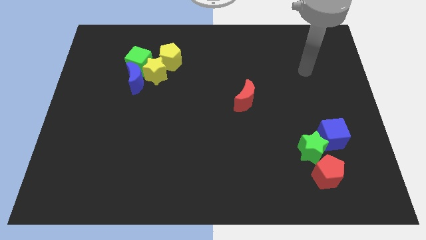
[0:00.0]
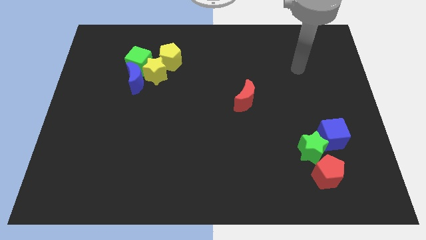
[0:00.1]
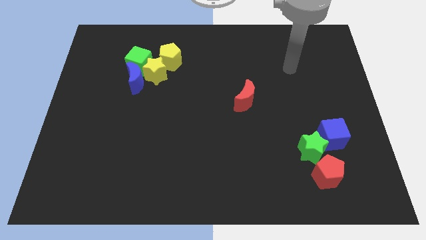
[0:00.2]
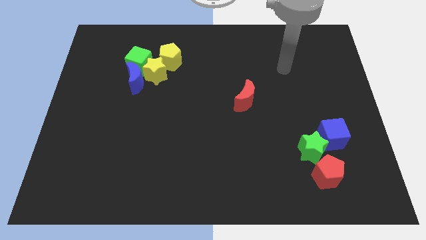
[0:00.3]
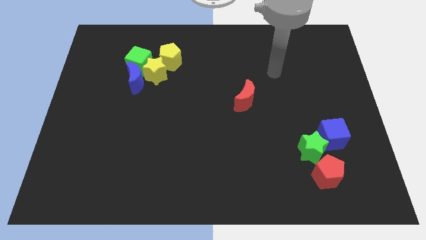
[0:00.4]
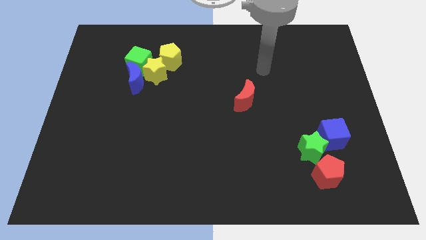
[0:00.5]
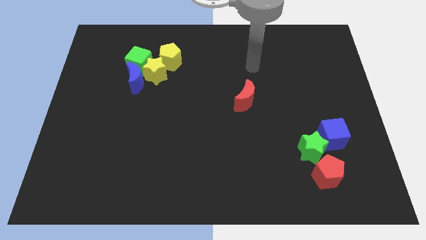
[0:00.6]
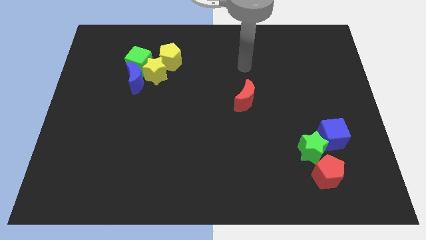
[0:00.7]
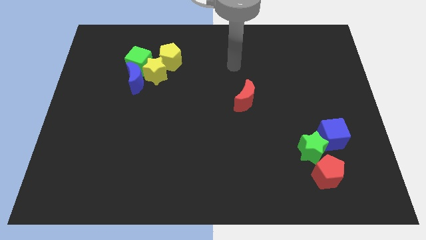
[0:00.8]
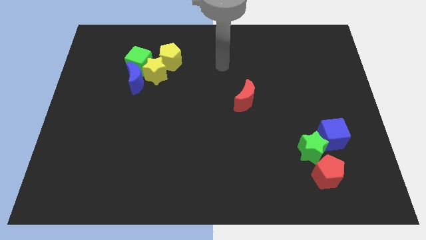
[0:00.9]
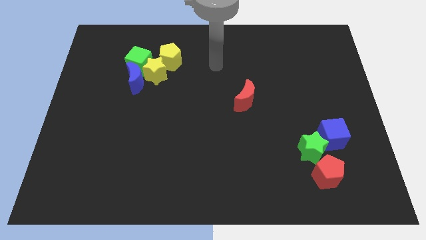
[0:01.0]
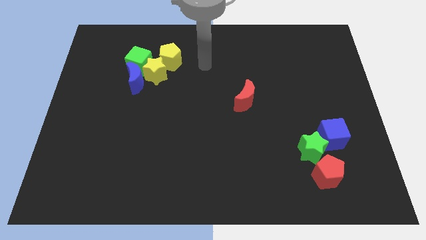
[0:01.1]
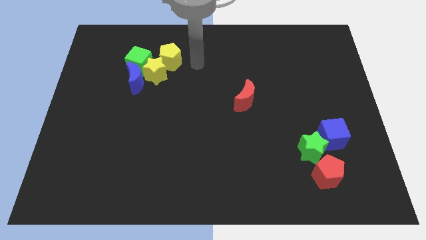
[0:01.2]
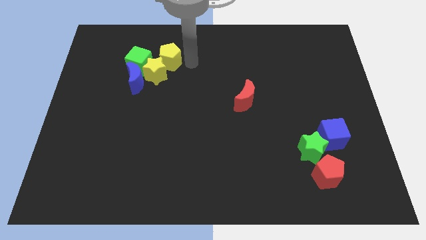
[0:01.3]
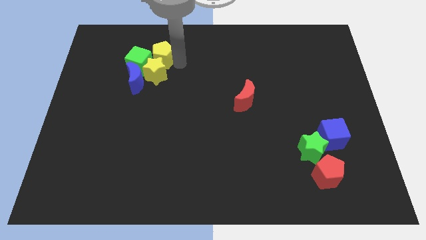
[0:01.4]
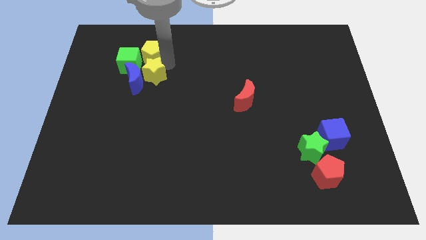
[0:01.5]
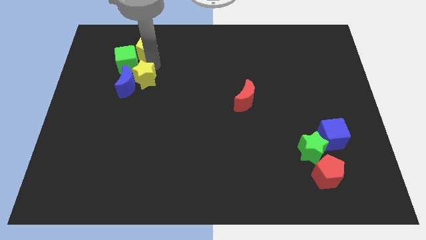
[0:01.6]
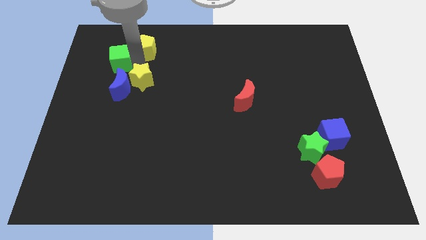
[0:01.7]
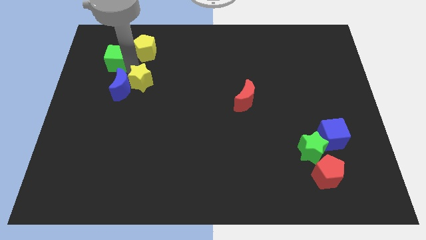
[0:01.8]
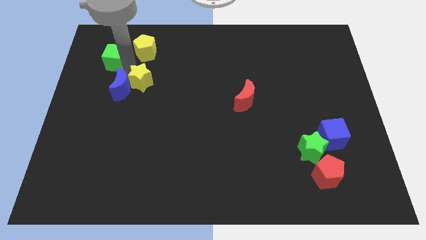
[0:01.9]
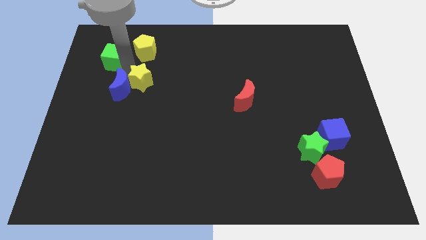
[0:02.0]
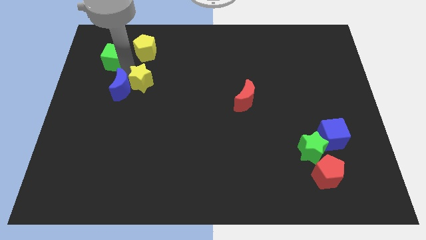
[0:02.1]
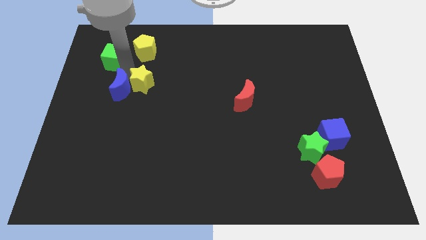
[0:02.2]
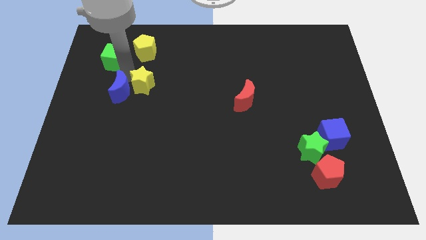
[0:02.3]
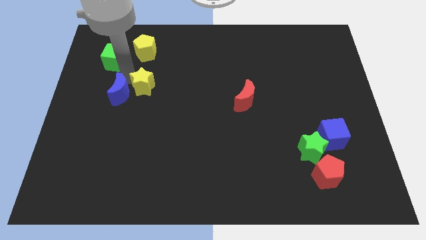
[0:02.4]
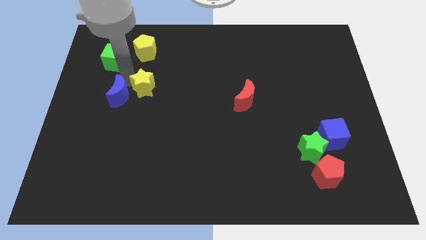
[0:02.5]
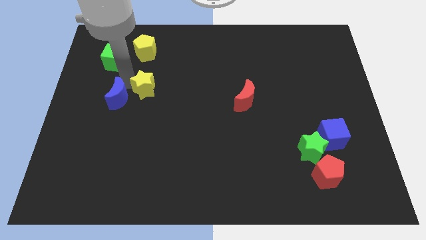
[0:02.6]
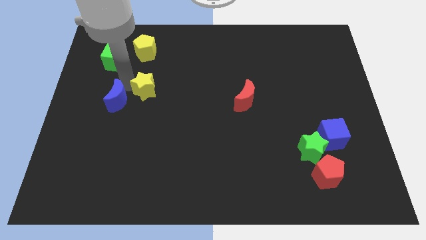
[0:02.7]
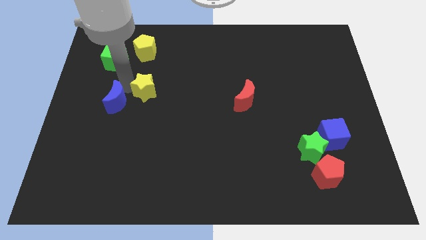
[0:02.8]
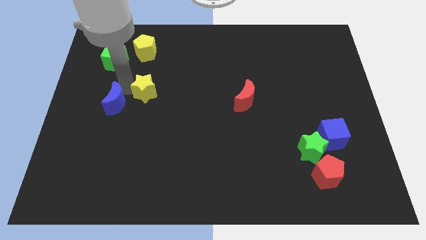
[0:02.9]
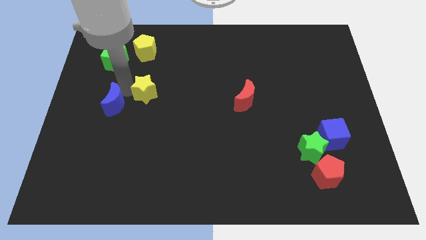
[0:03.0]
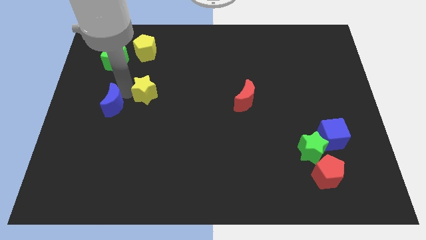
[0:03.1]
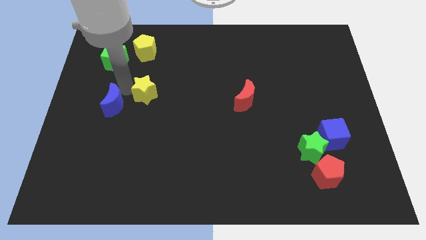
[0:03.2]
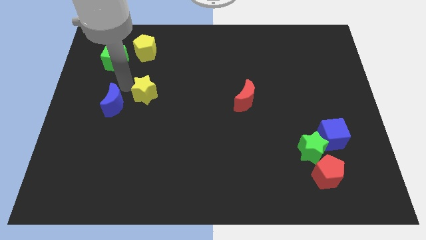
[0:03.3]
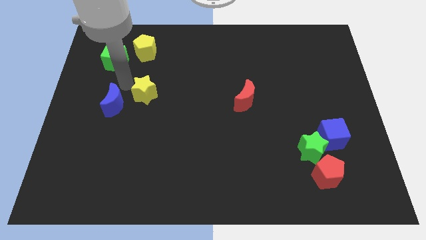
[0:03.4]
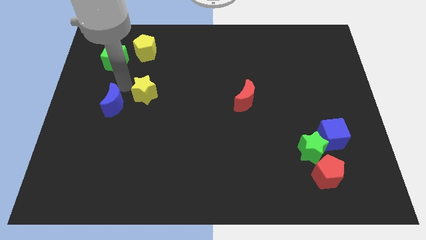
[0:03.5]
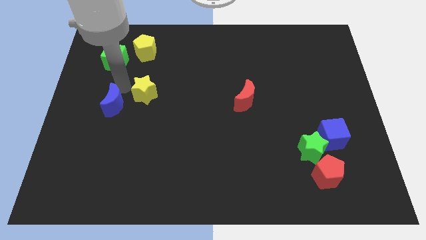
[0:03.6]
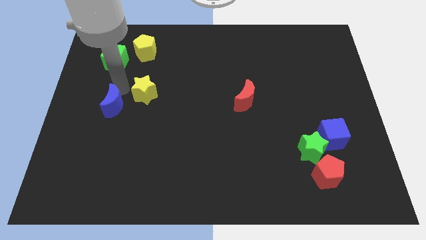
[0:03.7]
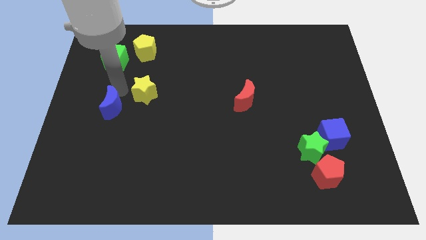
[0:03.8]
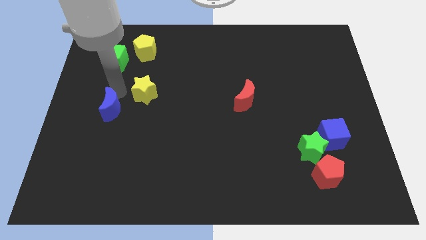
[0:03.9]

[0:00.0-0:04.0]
move the blue moon away from the yellow star and green cube

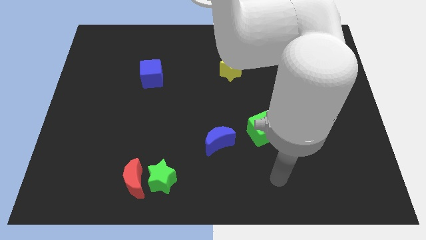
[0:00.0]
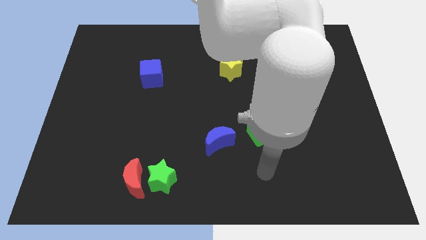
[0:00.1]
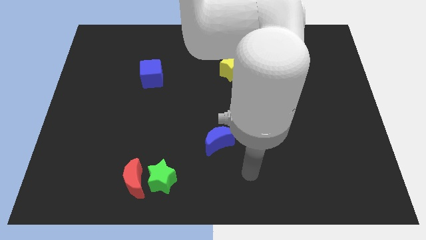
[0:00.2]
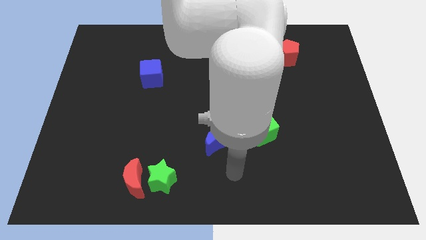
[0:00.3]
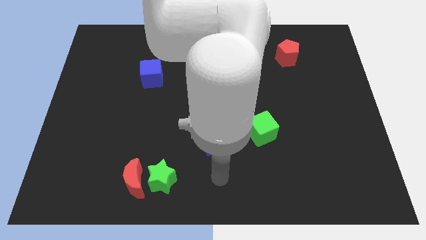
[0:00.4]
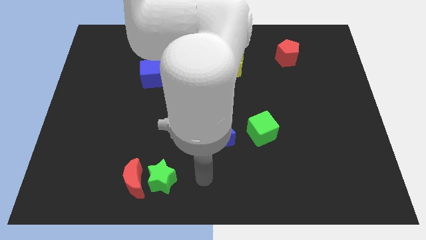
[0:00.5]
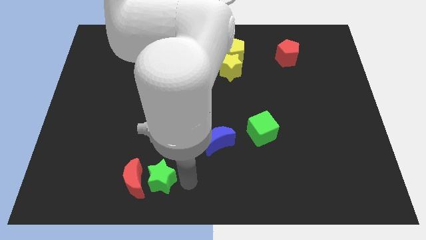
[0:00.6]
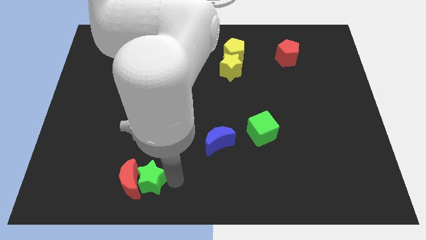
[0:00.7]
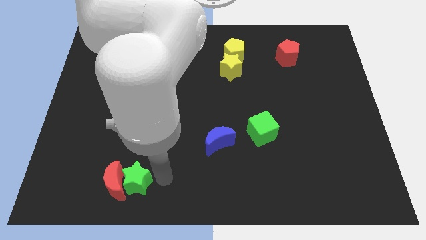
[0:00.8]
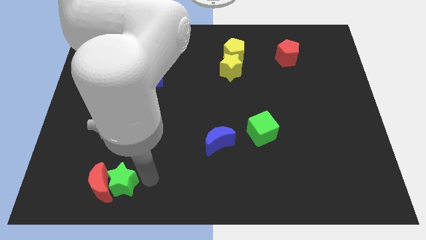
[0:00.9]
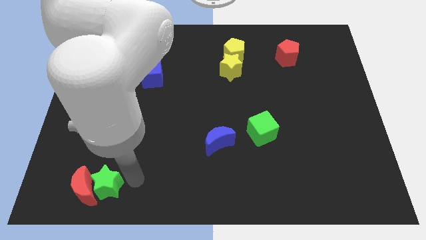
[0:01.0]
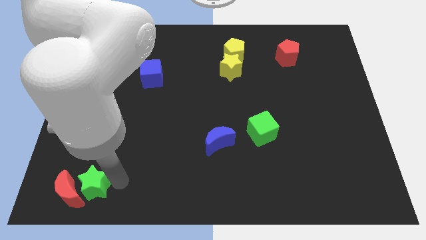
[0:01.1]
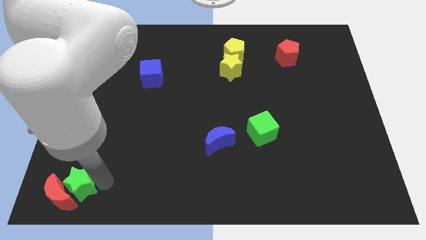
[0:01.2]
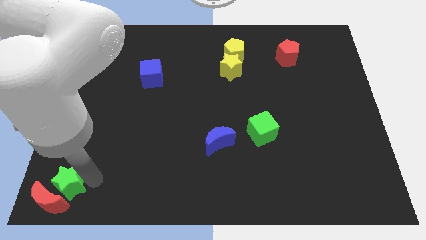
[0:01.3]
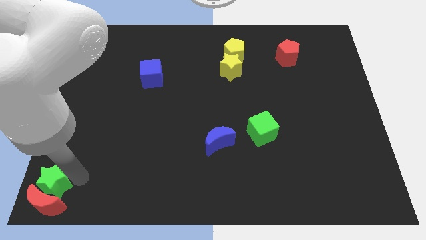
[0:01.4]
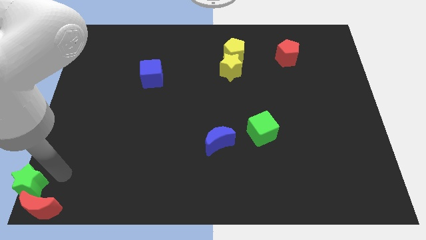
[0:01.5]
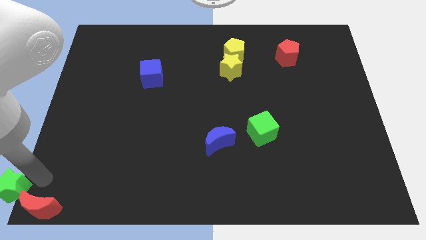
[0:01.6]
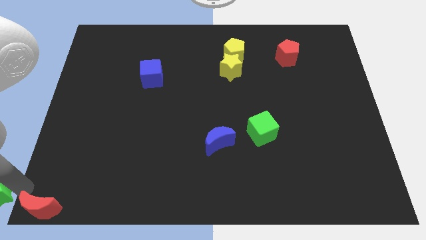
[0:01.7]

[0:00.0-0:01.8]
move the red moon away from the green star

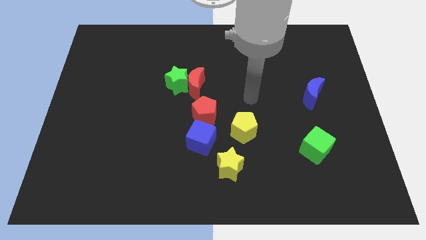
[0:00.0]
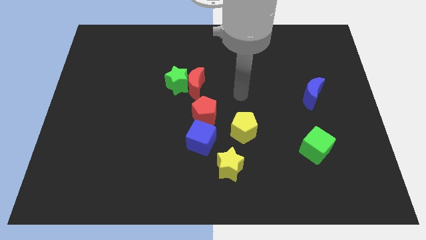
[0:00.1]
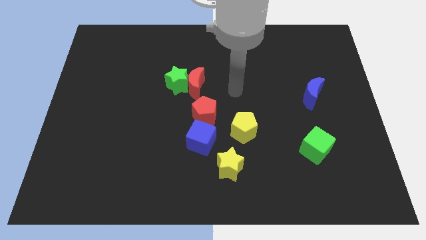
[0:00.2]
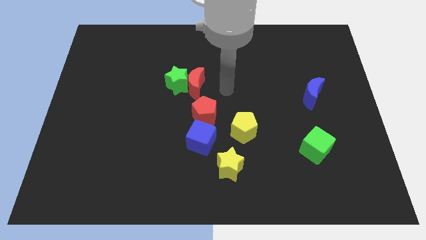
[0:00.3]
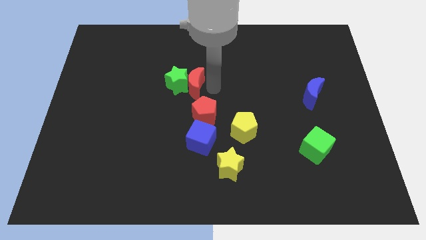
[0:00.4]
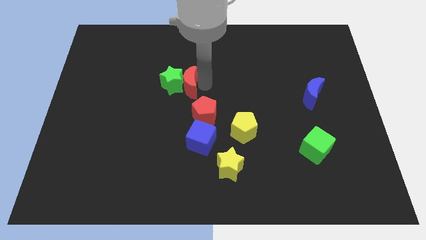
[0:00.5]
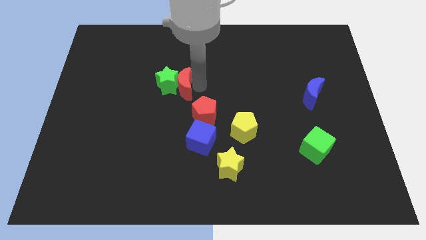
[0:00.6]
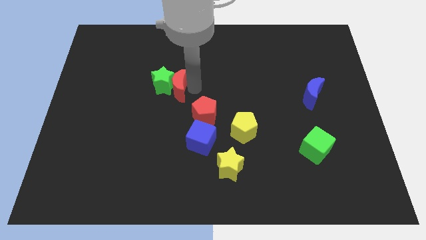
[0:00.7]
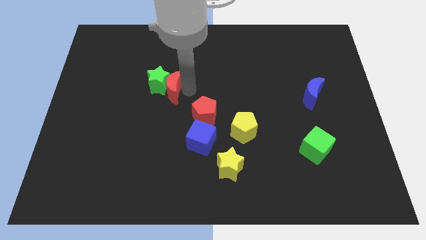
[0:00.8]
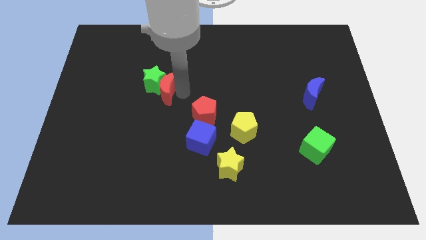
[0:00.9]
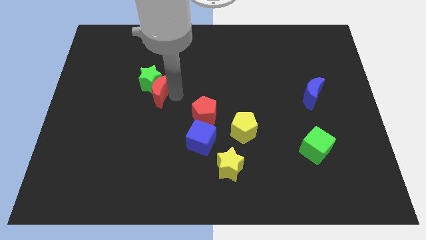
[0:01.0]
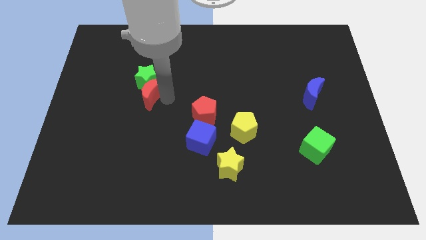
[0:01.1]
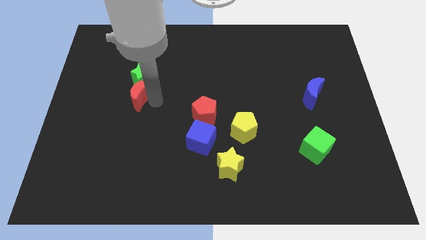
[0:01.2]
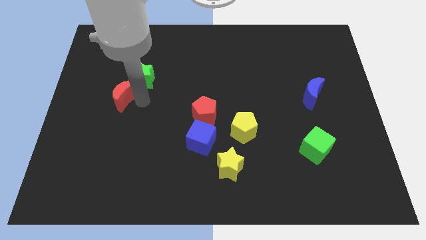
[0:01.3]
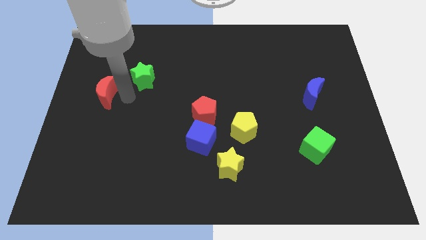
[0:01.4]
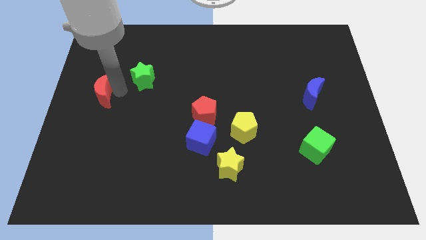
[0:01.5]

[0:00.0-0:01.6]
pull the green star apart from the red moon

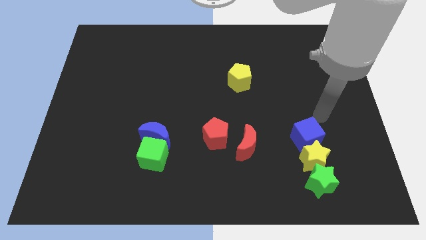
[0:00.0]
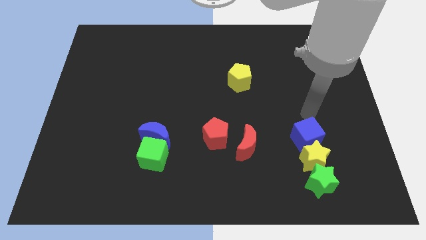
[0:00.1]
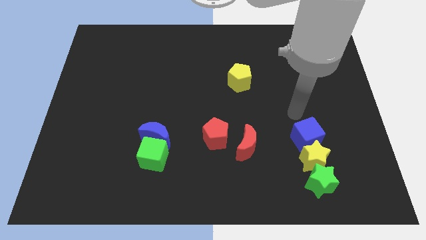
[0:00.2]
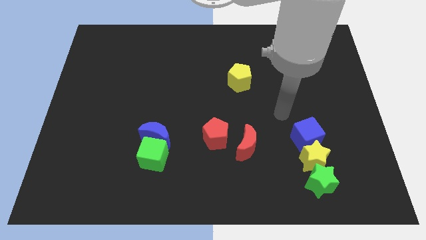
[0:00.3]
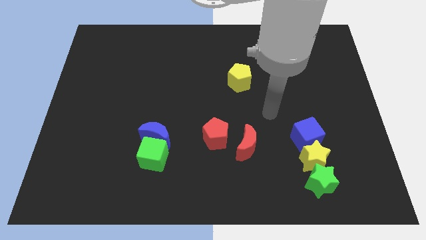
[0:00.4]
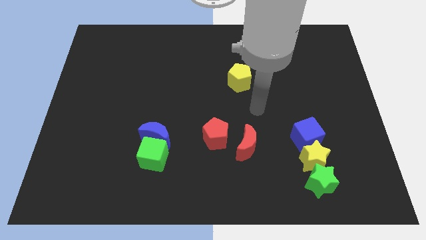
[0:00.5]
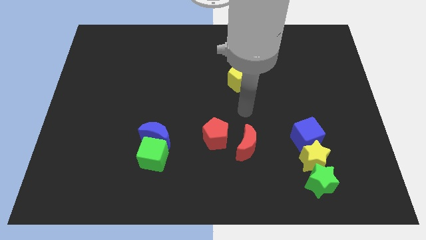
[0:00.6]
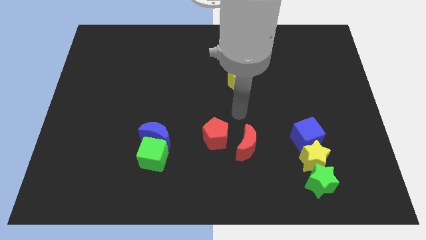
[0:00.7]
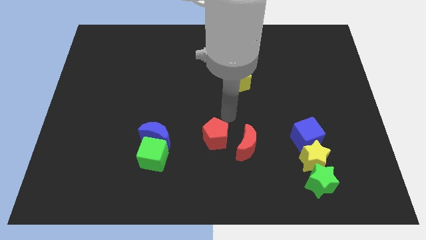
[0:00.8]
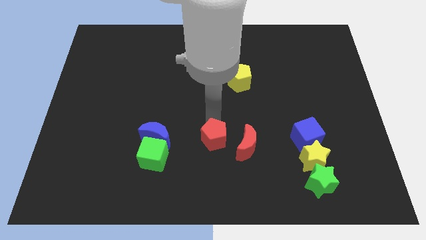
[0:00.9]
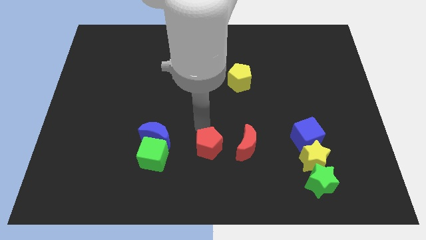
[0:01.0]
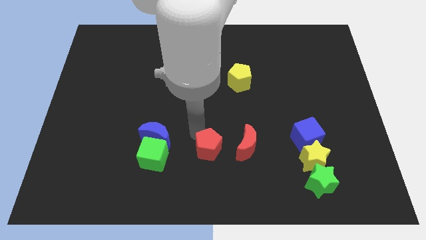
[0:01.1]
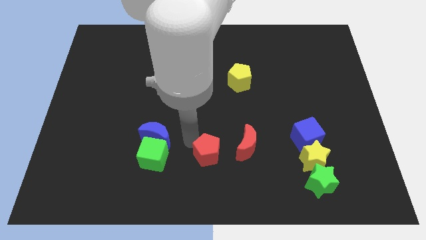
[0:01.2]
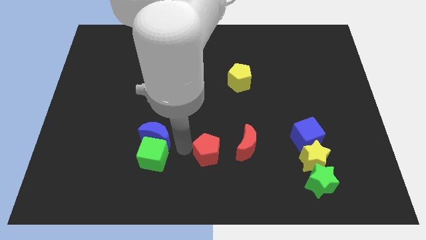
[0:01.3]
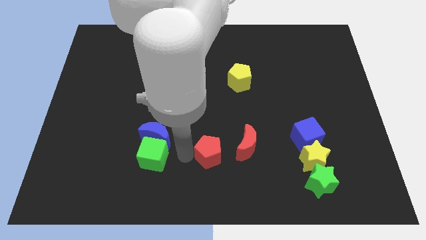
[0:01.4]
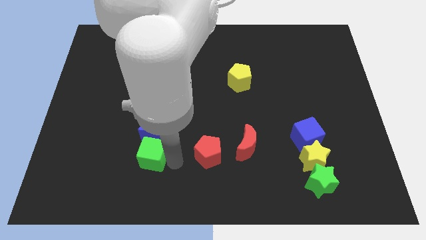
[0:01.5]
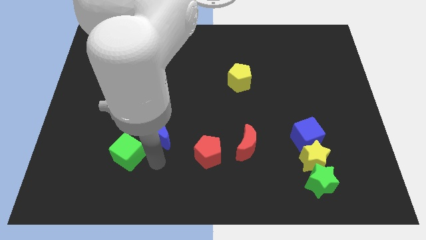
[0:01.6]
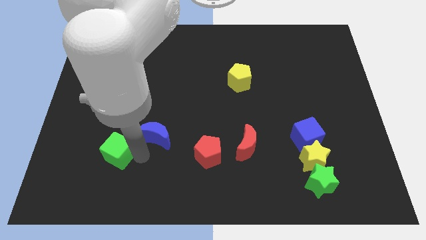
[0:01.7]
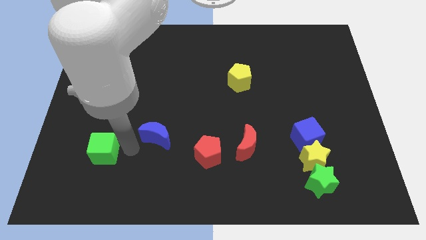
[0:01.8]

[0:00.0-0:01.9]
pull the blue moon apart from the green cube

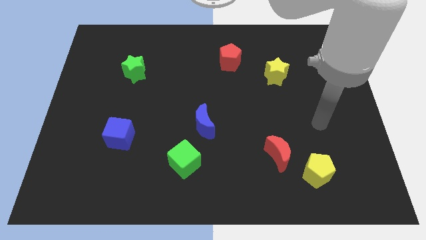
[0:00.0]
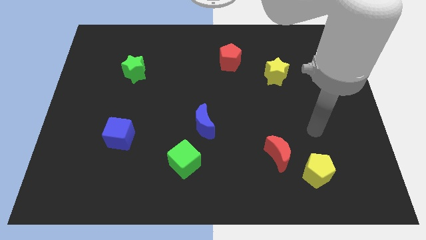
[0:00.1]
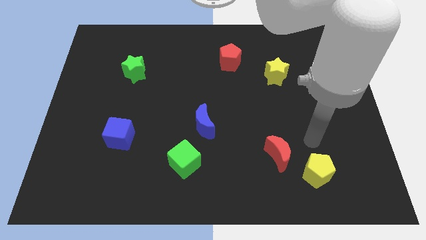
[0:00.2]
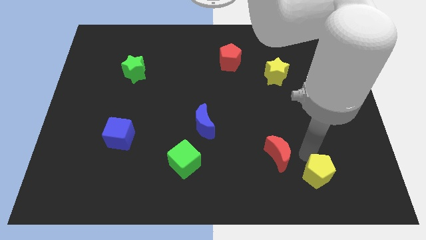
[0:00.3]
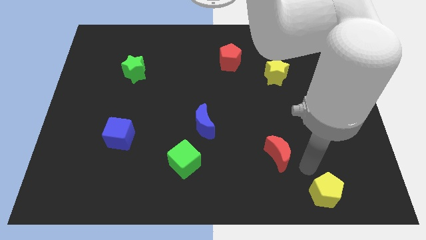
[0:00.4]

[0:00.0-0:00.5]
pull the red moon apart from the yellow pentagon
